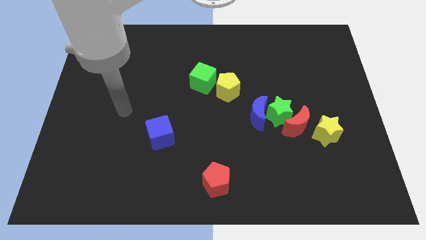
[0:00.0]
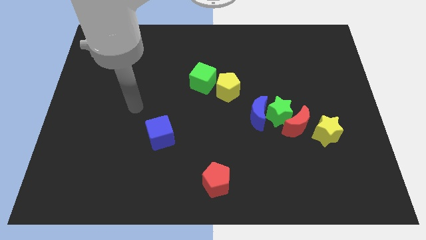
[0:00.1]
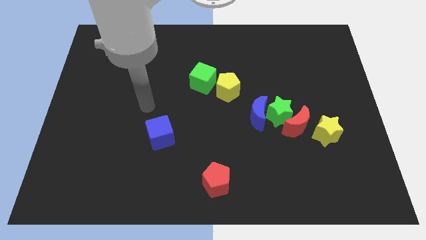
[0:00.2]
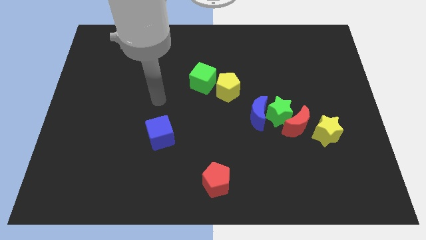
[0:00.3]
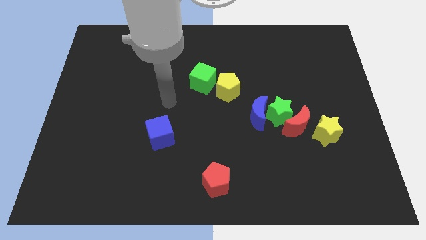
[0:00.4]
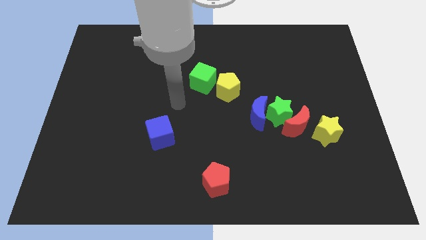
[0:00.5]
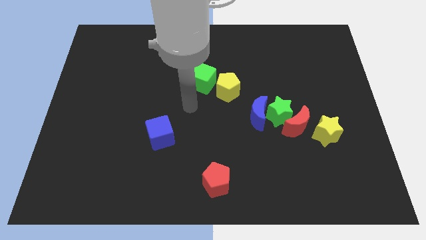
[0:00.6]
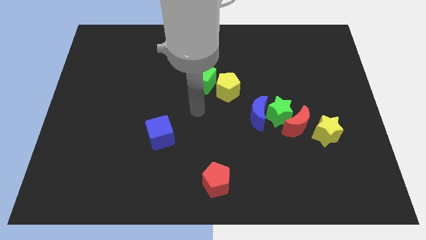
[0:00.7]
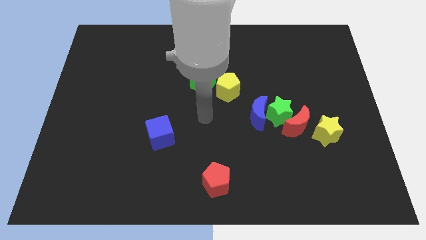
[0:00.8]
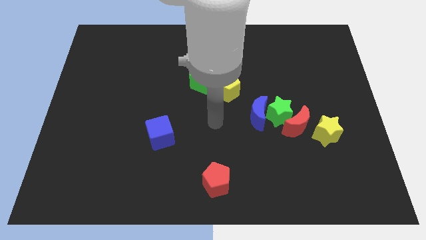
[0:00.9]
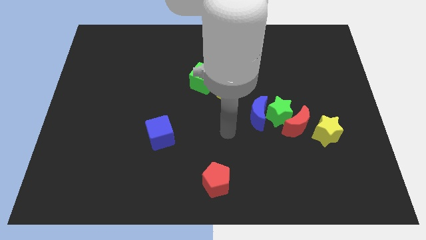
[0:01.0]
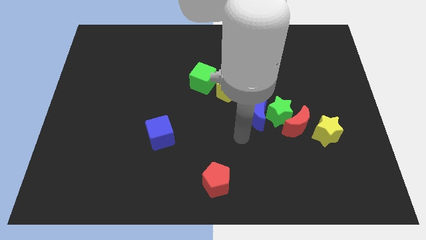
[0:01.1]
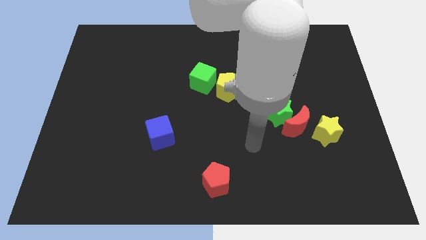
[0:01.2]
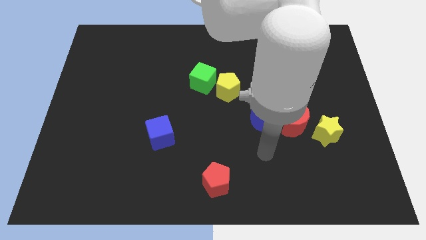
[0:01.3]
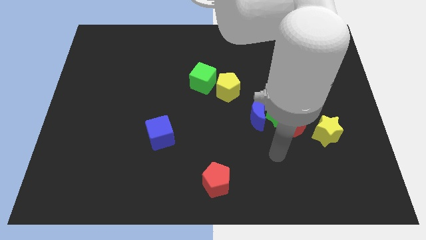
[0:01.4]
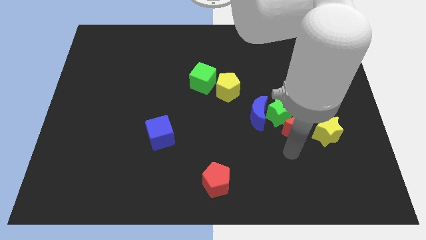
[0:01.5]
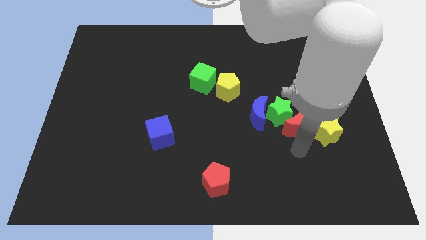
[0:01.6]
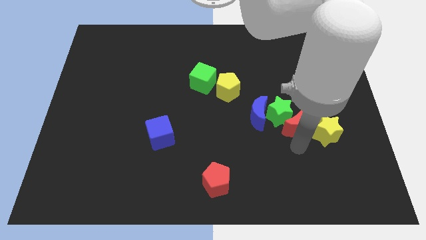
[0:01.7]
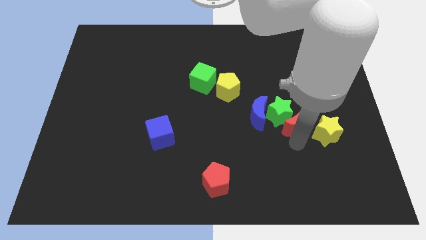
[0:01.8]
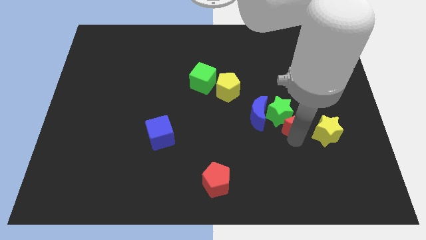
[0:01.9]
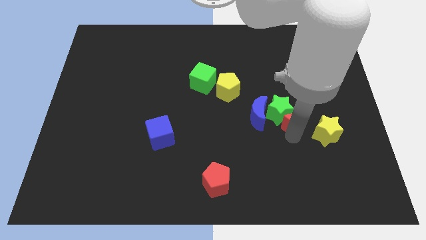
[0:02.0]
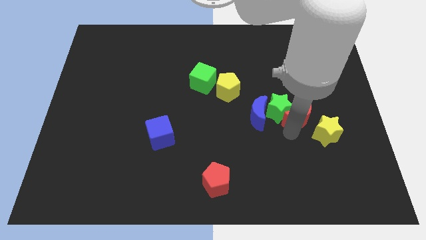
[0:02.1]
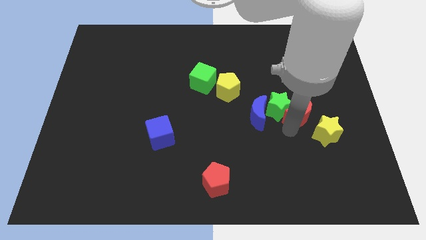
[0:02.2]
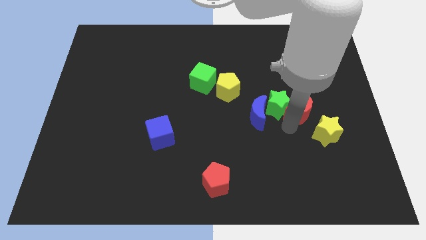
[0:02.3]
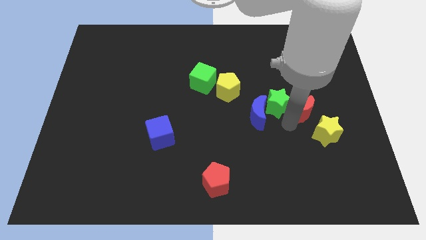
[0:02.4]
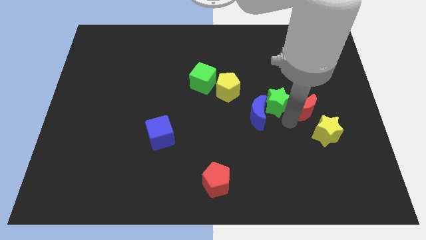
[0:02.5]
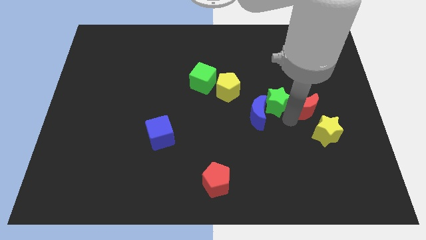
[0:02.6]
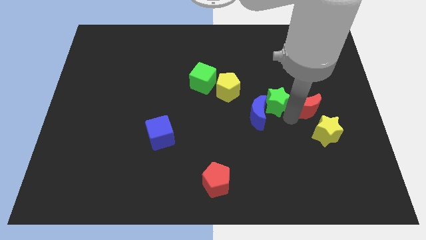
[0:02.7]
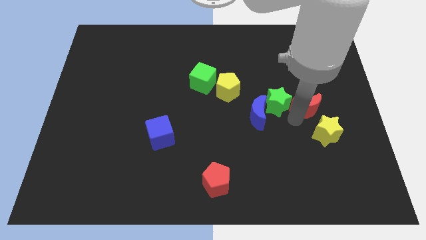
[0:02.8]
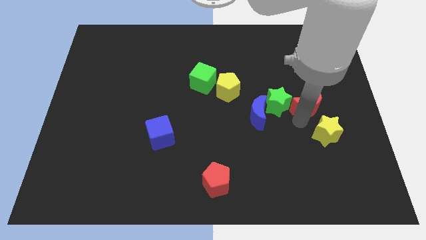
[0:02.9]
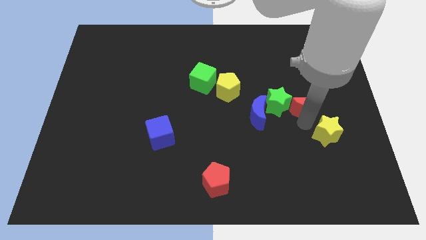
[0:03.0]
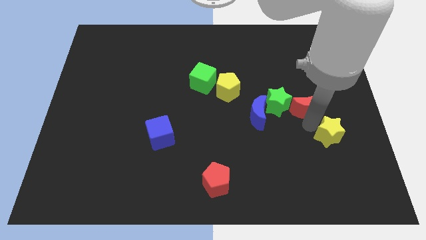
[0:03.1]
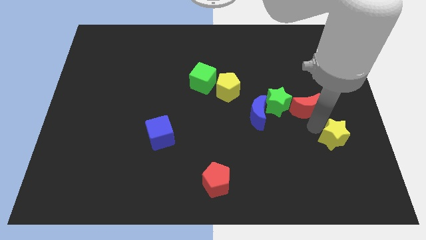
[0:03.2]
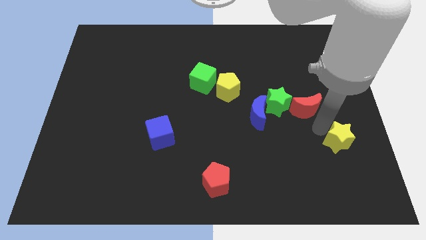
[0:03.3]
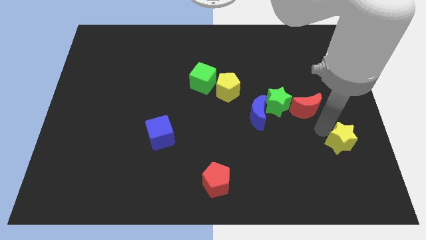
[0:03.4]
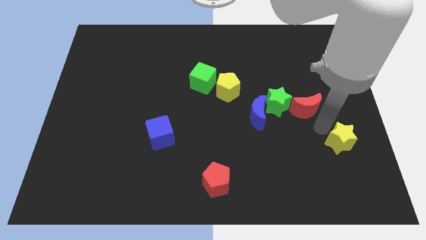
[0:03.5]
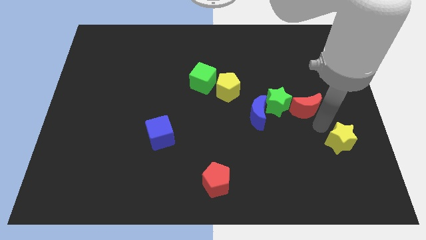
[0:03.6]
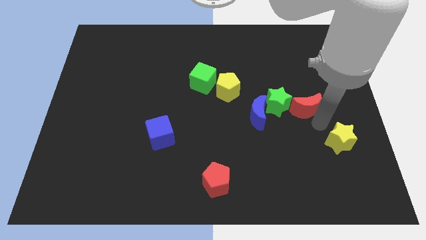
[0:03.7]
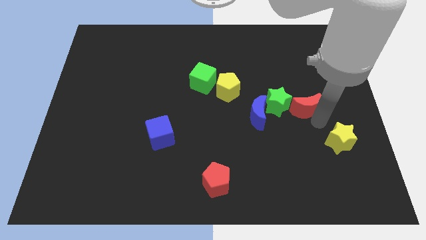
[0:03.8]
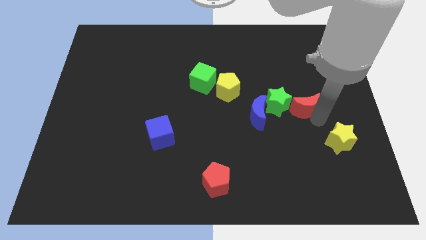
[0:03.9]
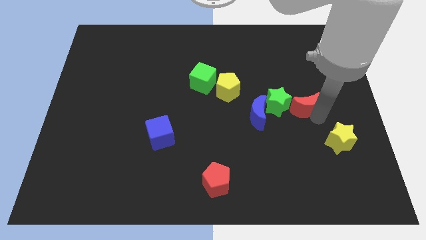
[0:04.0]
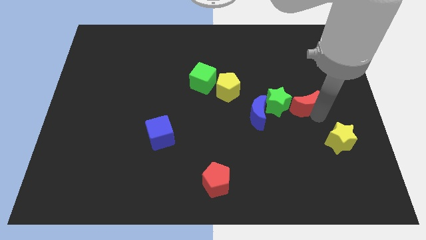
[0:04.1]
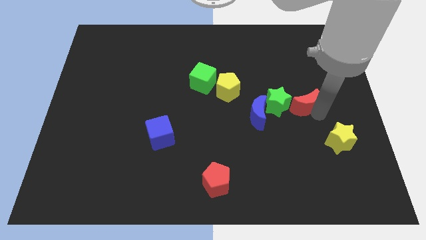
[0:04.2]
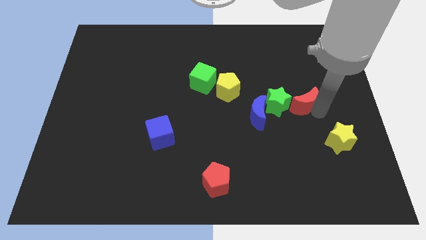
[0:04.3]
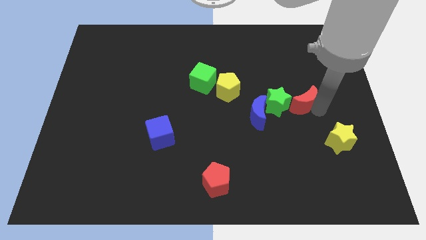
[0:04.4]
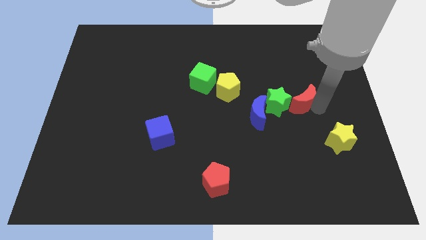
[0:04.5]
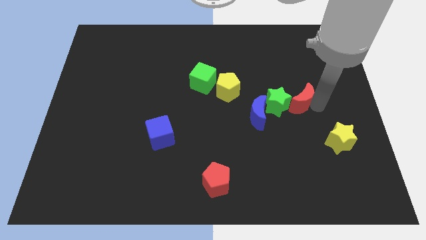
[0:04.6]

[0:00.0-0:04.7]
slightly push the red moon upwards

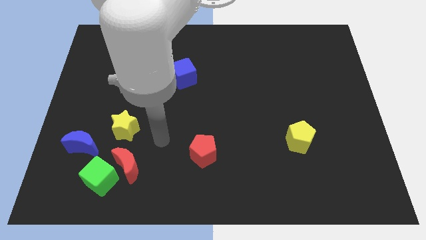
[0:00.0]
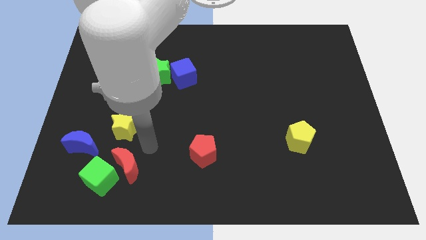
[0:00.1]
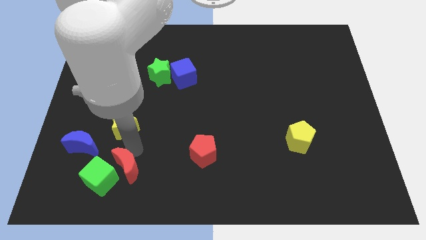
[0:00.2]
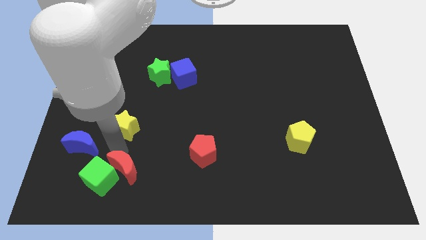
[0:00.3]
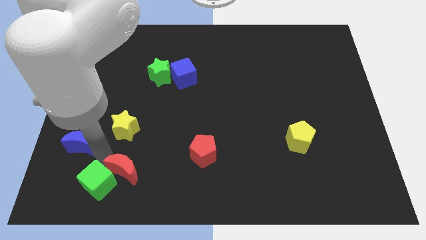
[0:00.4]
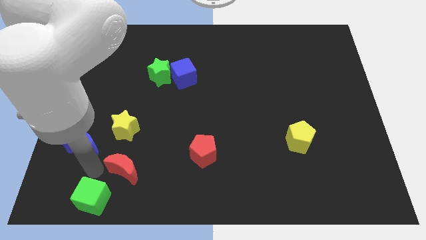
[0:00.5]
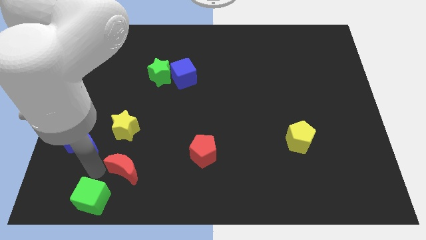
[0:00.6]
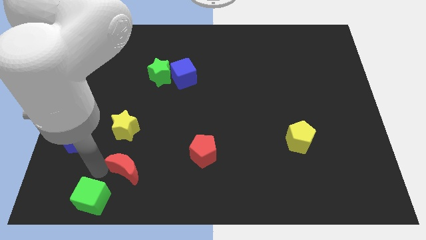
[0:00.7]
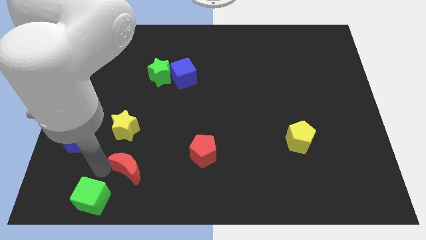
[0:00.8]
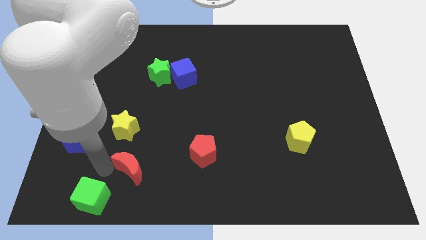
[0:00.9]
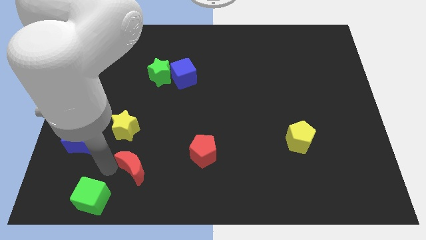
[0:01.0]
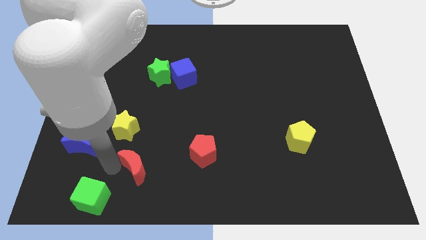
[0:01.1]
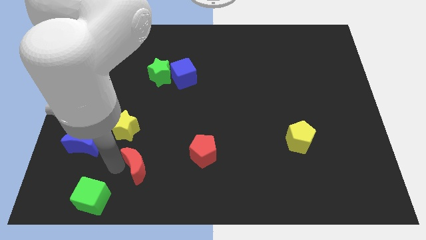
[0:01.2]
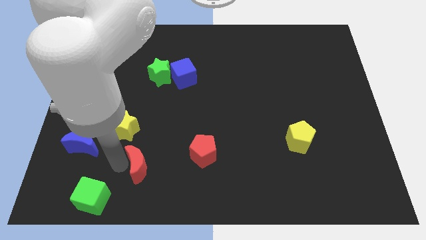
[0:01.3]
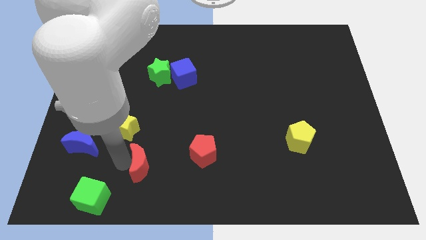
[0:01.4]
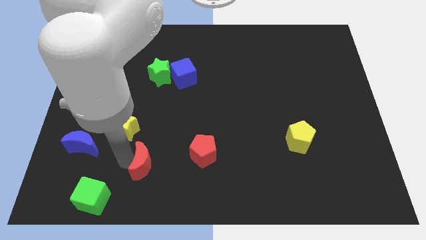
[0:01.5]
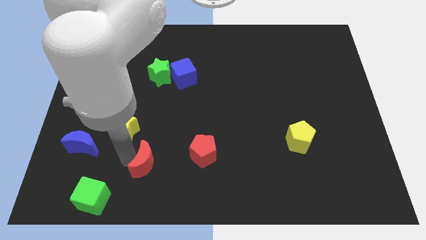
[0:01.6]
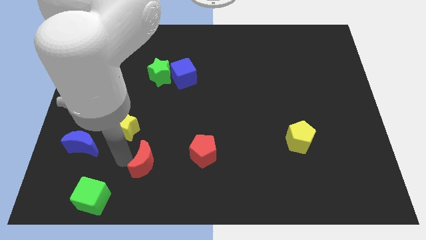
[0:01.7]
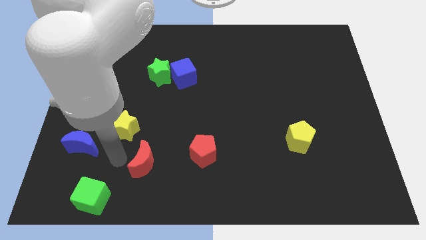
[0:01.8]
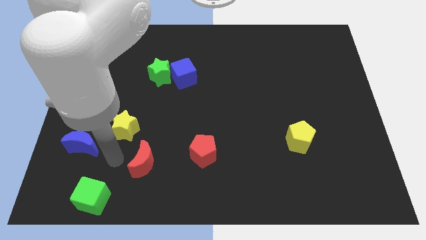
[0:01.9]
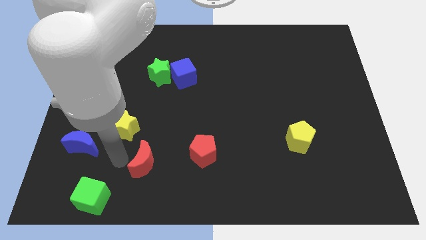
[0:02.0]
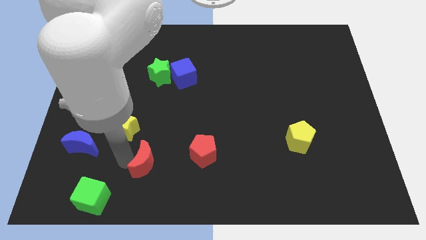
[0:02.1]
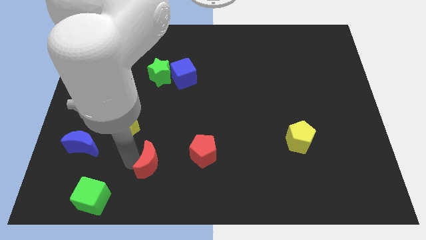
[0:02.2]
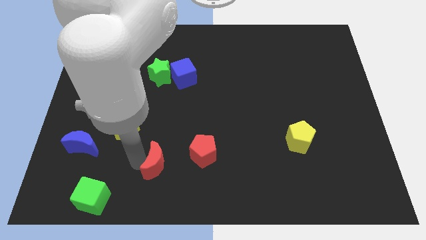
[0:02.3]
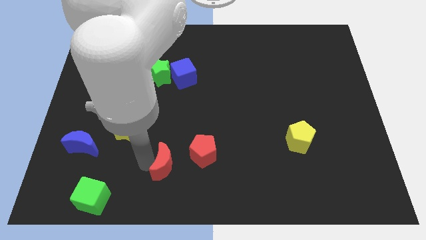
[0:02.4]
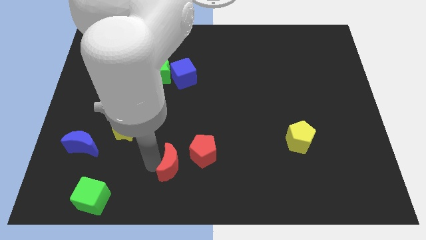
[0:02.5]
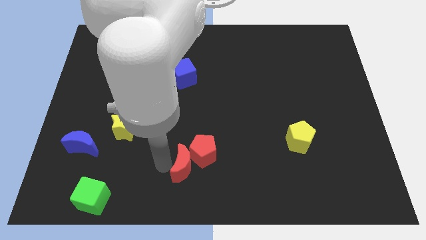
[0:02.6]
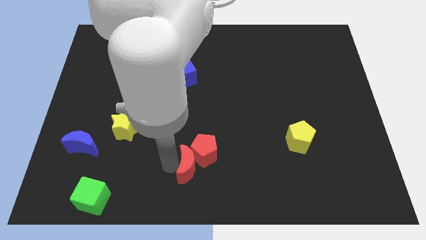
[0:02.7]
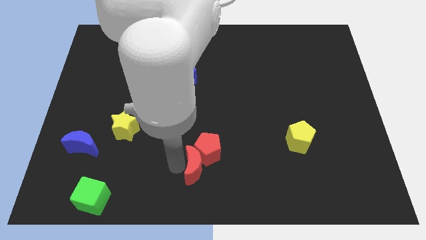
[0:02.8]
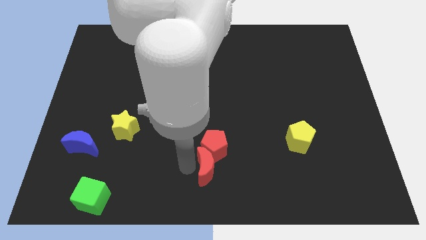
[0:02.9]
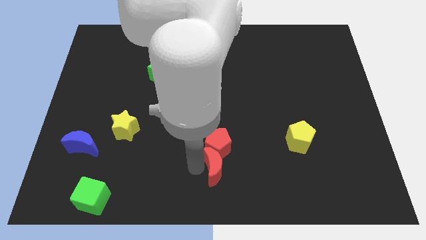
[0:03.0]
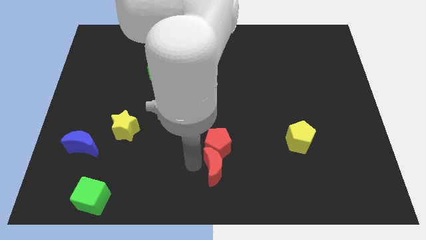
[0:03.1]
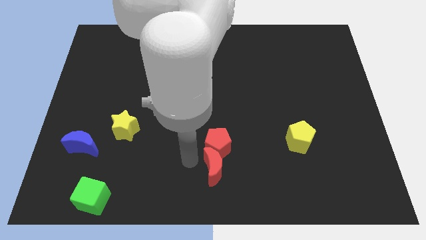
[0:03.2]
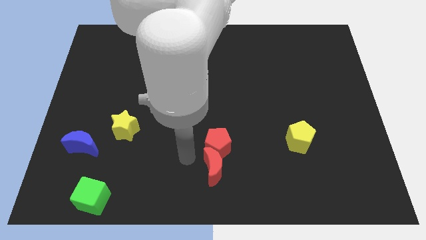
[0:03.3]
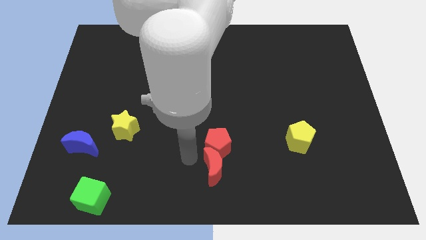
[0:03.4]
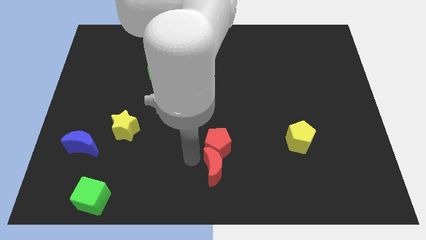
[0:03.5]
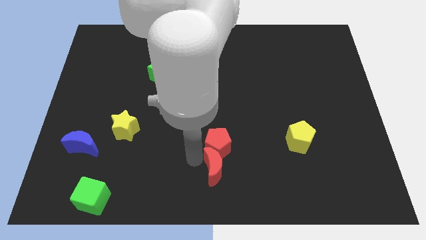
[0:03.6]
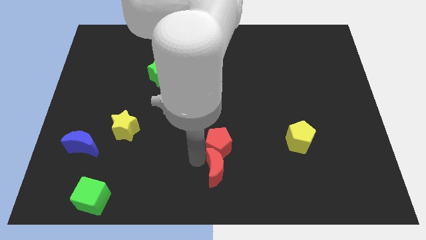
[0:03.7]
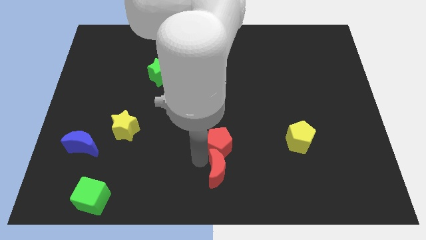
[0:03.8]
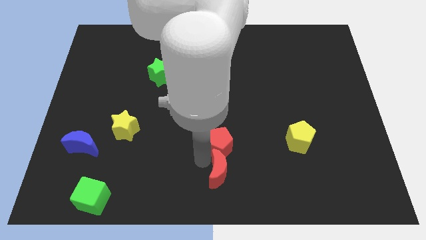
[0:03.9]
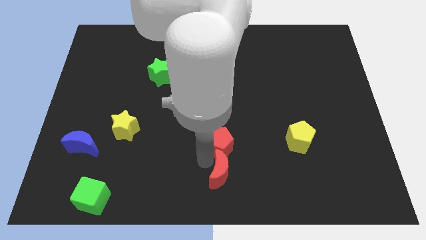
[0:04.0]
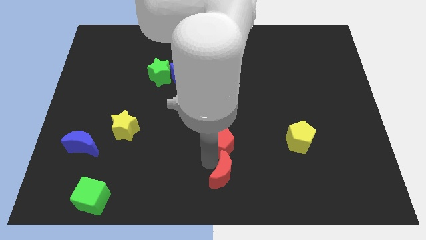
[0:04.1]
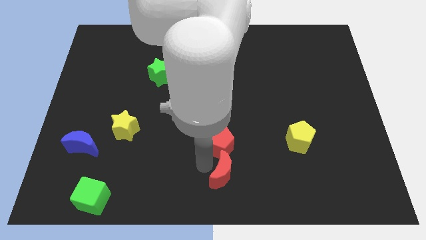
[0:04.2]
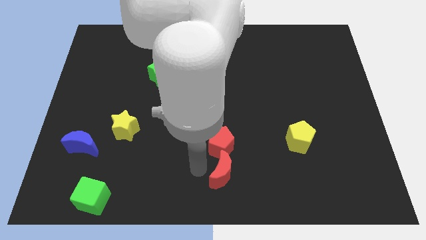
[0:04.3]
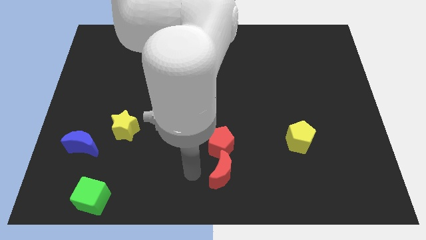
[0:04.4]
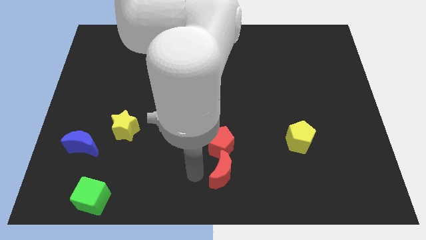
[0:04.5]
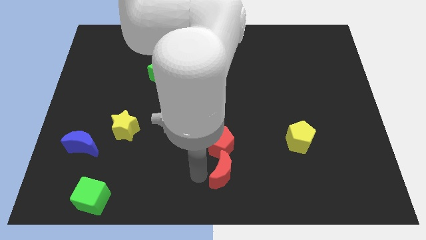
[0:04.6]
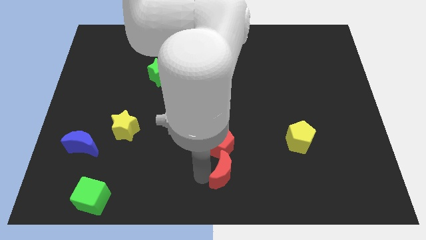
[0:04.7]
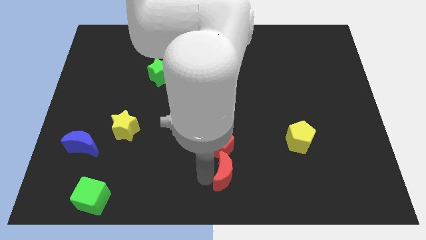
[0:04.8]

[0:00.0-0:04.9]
push the red moon to the right
